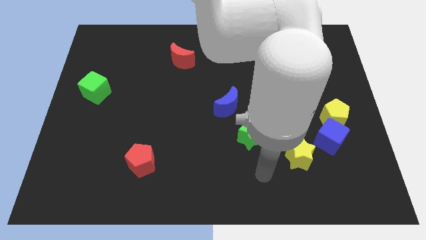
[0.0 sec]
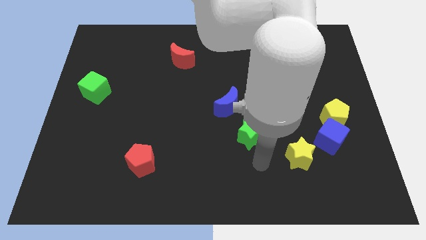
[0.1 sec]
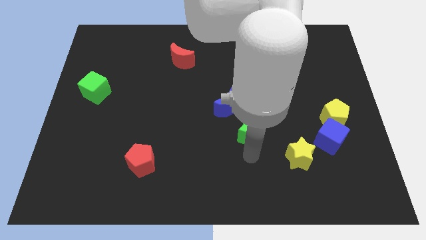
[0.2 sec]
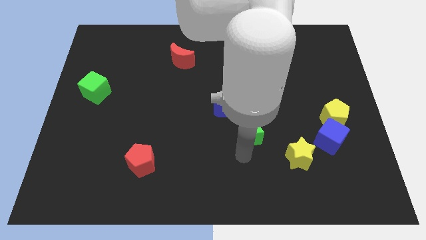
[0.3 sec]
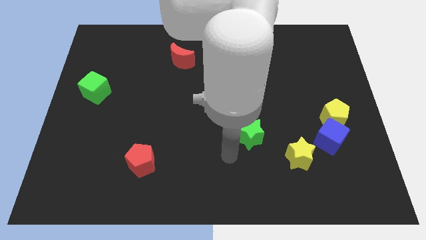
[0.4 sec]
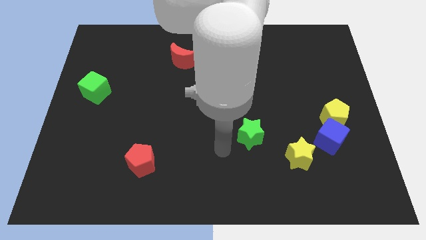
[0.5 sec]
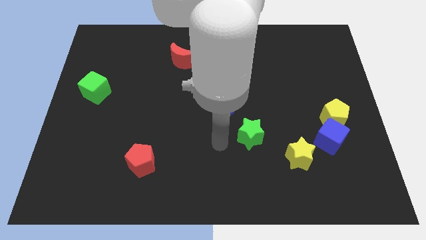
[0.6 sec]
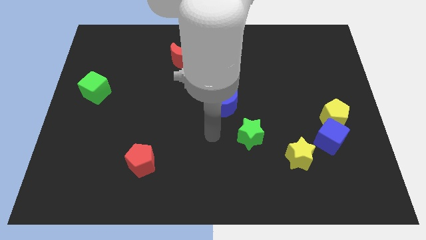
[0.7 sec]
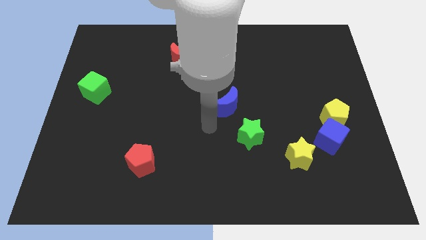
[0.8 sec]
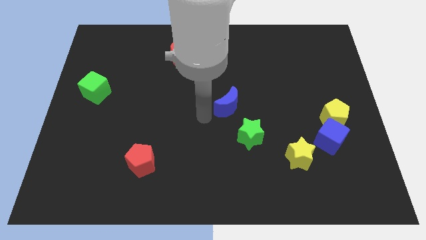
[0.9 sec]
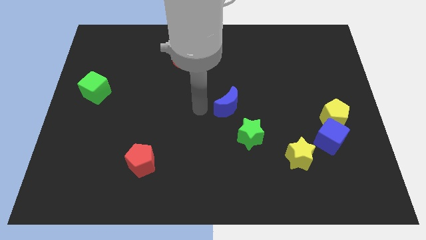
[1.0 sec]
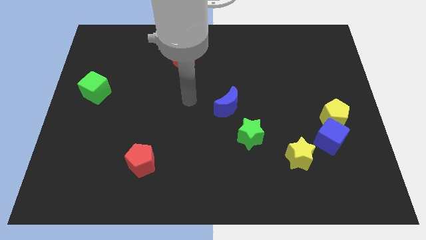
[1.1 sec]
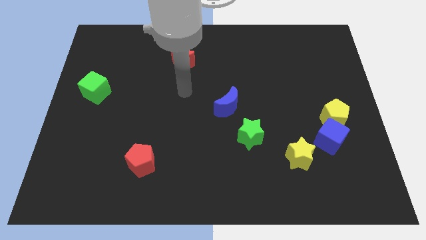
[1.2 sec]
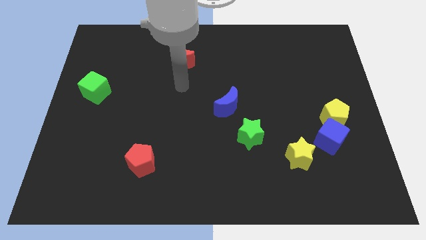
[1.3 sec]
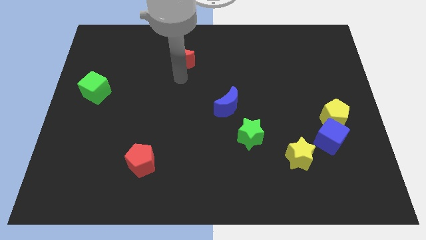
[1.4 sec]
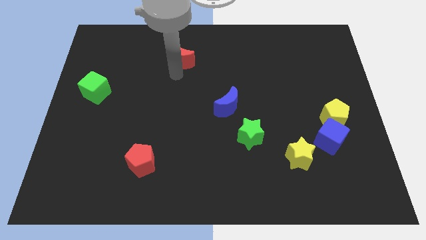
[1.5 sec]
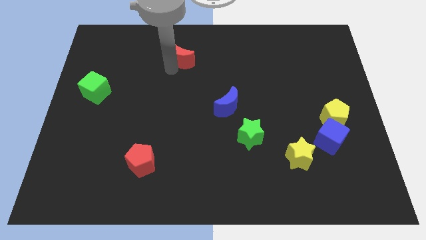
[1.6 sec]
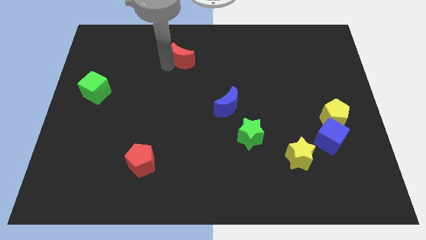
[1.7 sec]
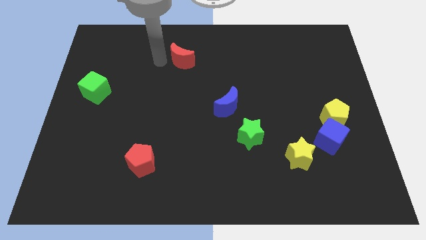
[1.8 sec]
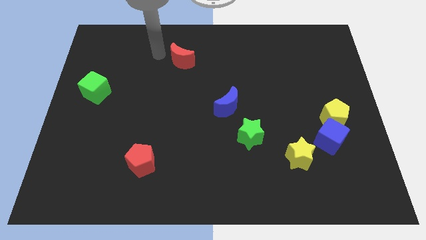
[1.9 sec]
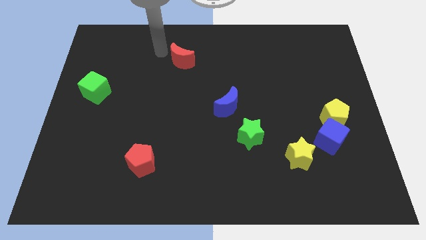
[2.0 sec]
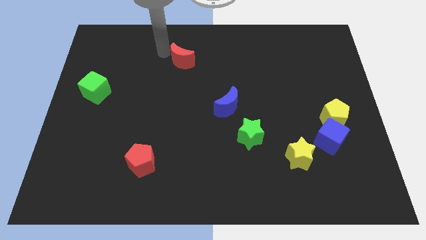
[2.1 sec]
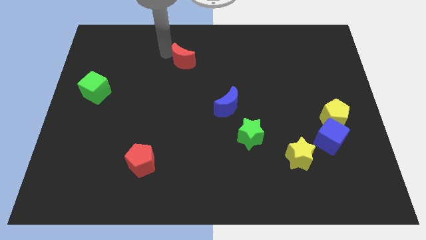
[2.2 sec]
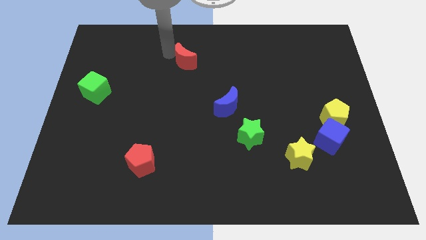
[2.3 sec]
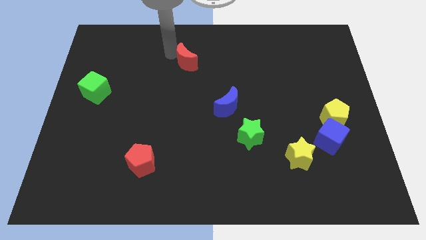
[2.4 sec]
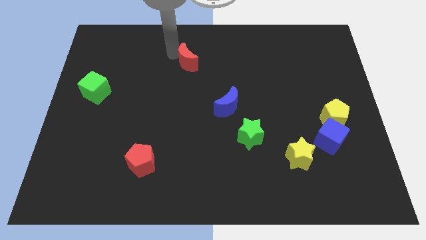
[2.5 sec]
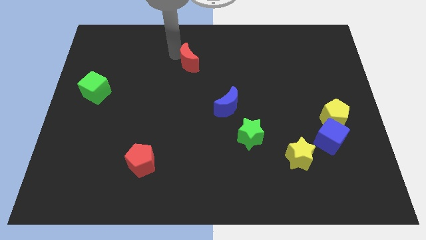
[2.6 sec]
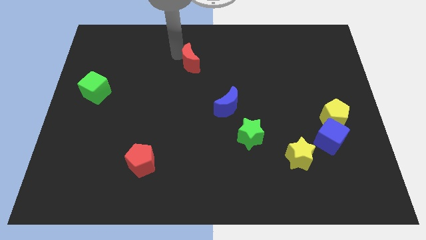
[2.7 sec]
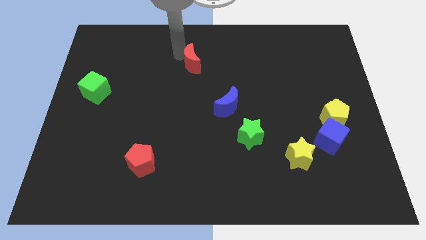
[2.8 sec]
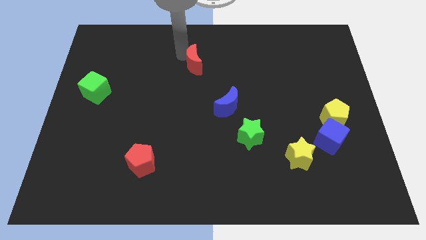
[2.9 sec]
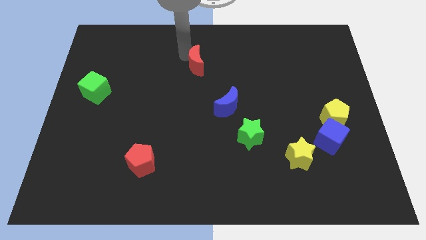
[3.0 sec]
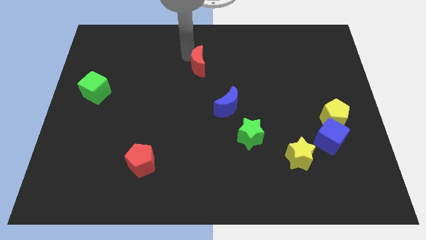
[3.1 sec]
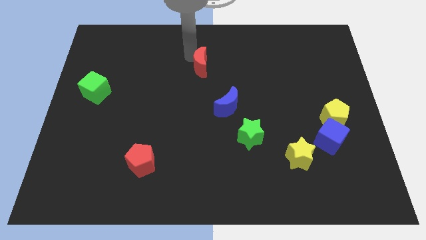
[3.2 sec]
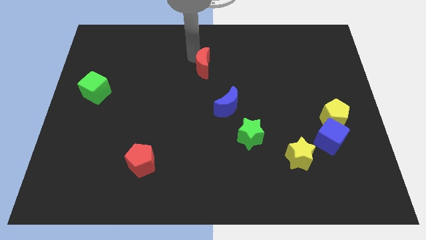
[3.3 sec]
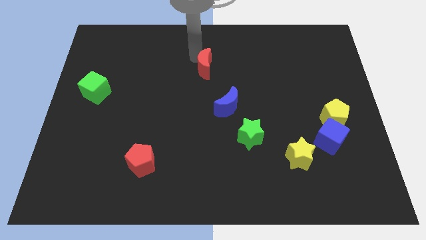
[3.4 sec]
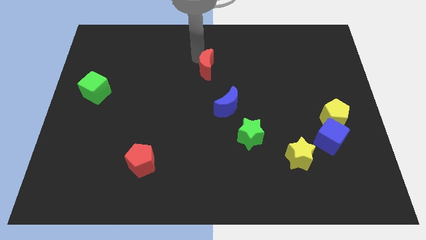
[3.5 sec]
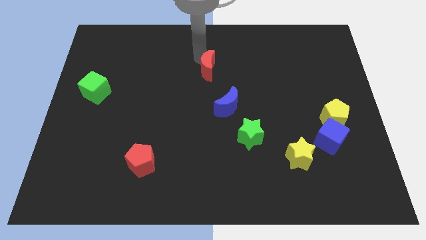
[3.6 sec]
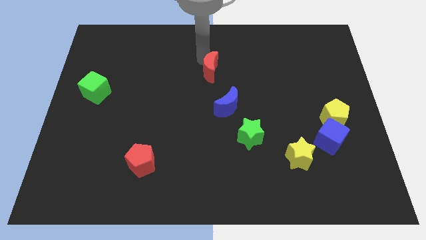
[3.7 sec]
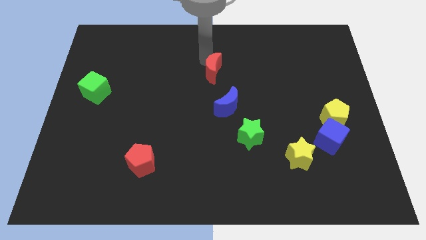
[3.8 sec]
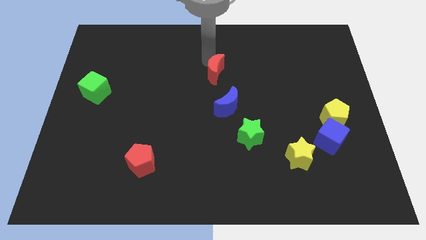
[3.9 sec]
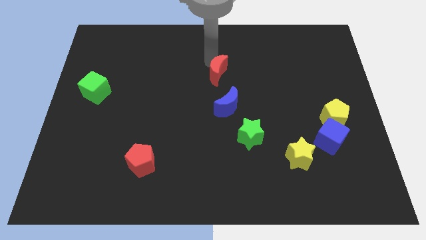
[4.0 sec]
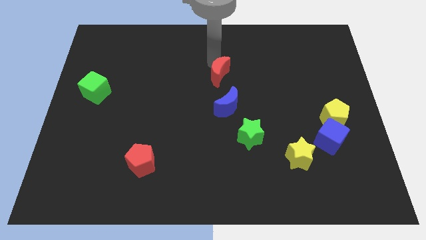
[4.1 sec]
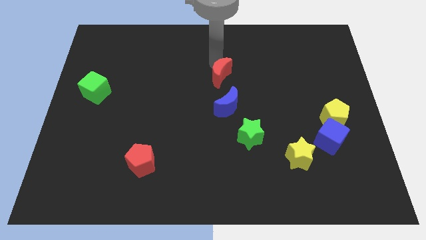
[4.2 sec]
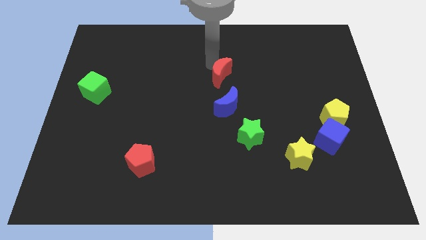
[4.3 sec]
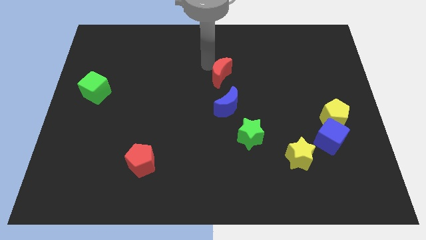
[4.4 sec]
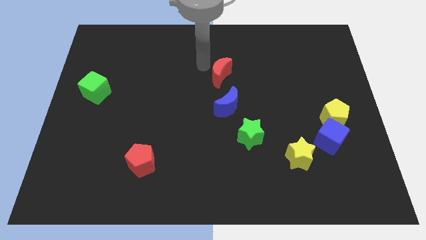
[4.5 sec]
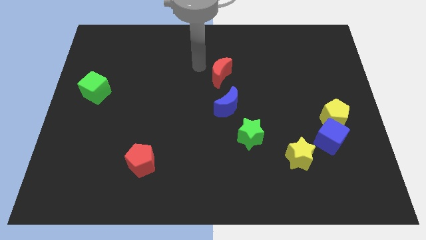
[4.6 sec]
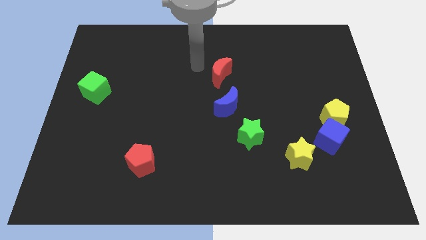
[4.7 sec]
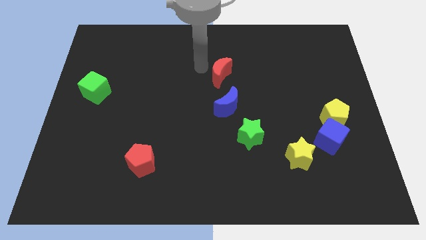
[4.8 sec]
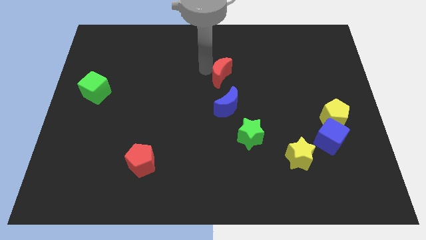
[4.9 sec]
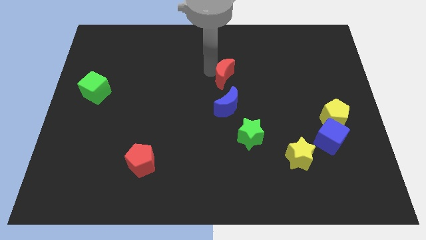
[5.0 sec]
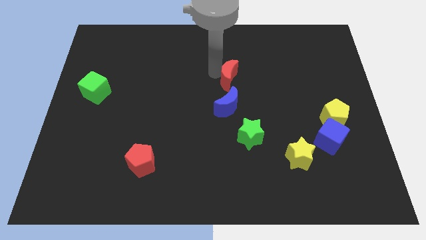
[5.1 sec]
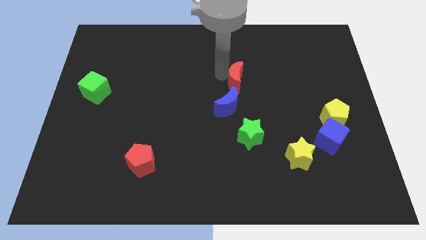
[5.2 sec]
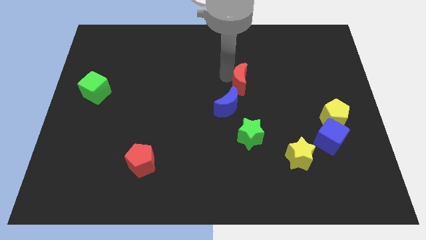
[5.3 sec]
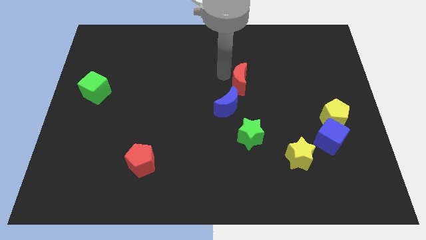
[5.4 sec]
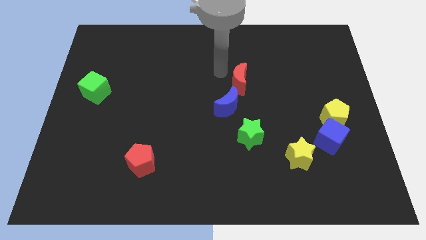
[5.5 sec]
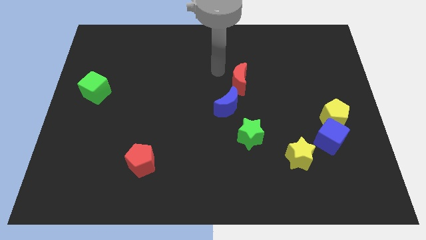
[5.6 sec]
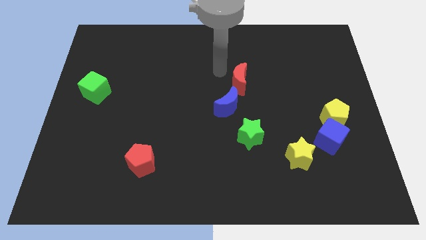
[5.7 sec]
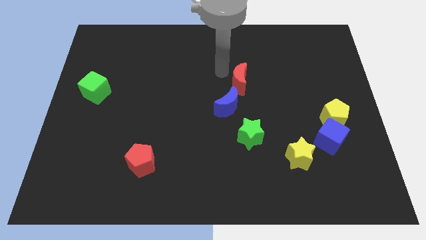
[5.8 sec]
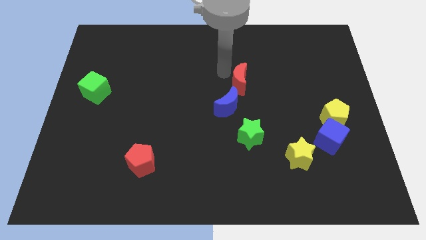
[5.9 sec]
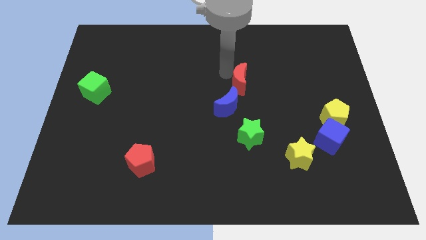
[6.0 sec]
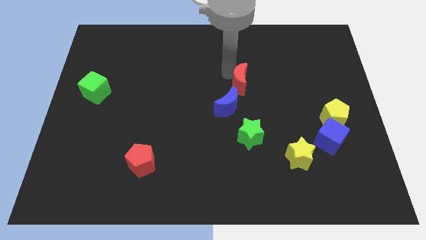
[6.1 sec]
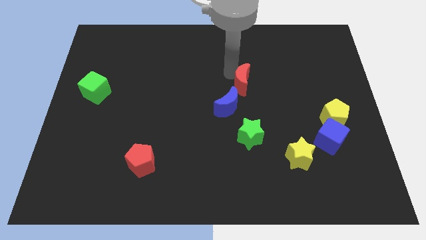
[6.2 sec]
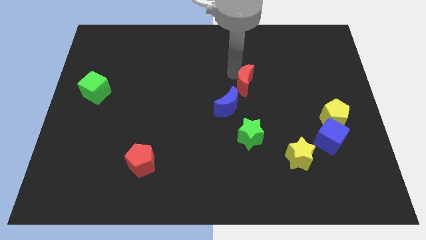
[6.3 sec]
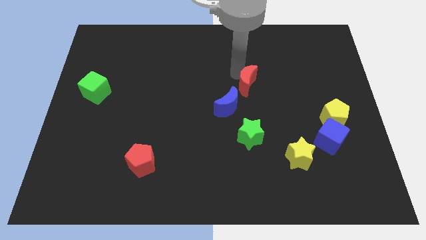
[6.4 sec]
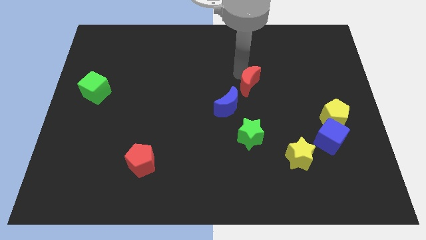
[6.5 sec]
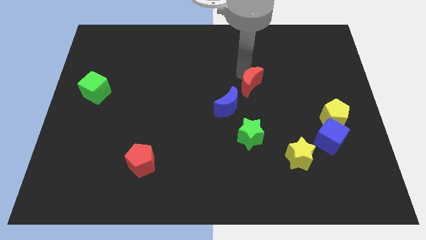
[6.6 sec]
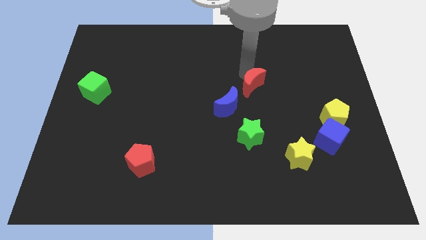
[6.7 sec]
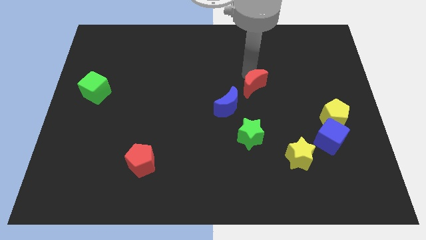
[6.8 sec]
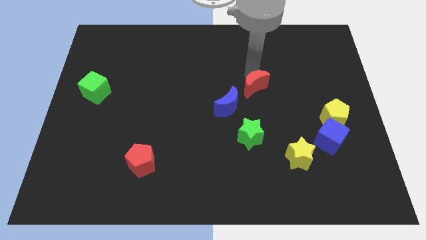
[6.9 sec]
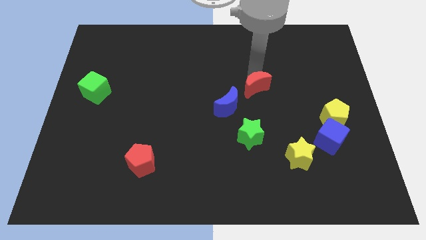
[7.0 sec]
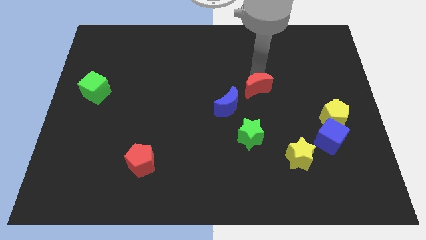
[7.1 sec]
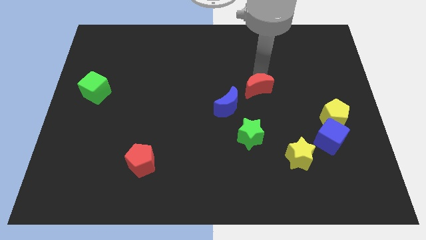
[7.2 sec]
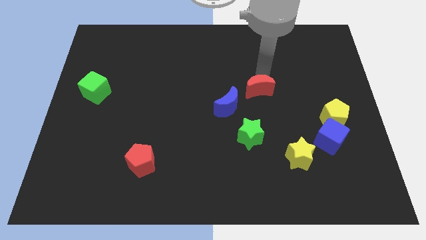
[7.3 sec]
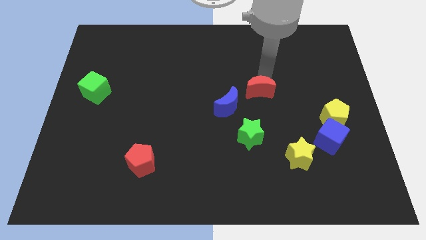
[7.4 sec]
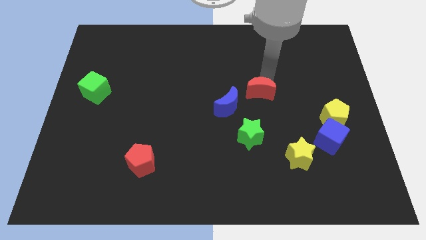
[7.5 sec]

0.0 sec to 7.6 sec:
push the red moon downwards and to the right
